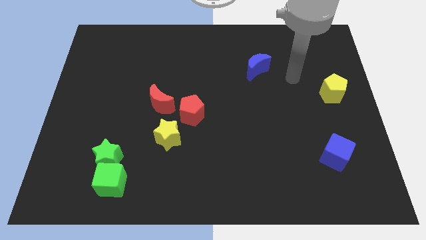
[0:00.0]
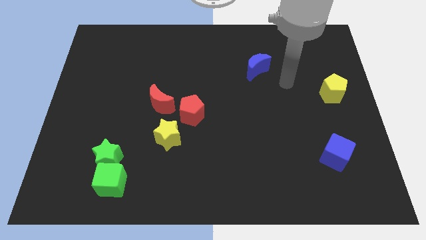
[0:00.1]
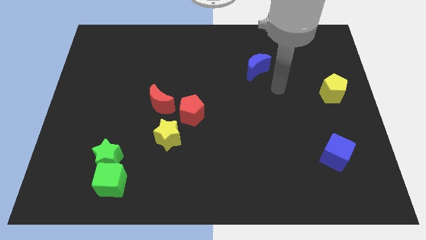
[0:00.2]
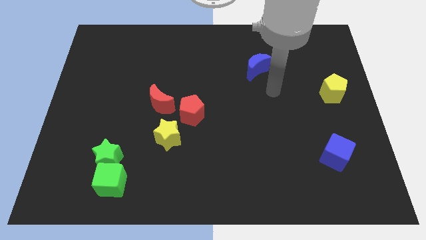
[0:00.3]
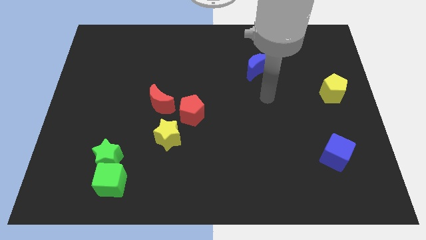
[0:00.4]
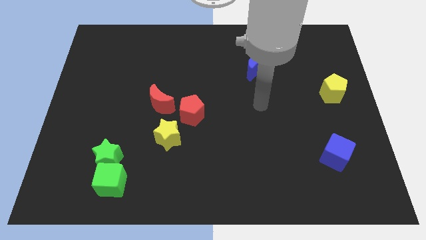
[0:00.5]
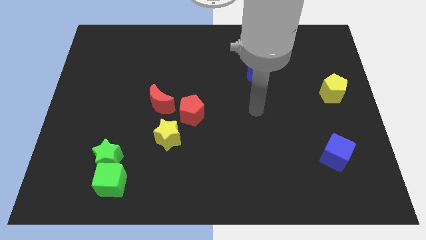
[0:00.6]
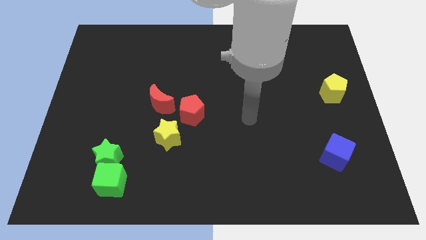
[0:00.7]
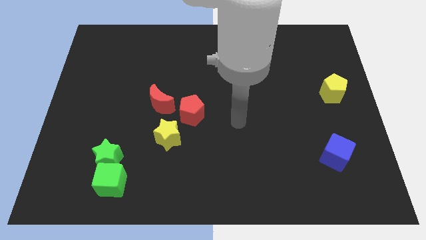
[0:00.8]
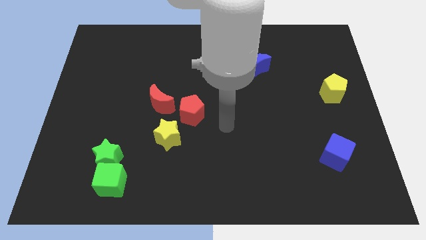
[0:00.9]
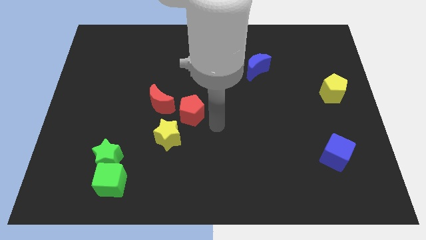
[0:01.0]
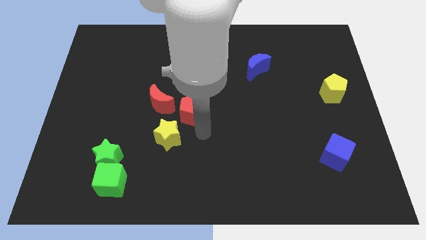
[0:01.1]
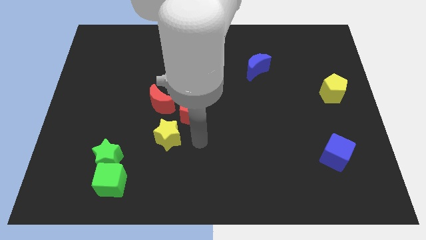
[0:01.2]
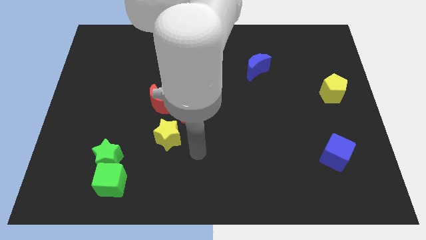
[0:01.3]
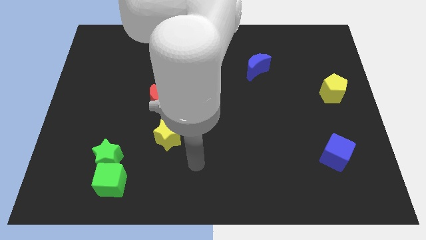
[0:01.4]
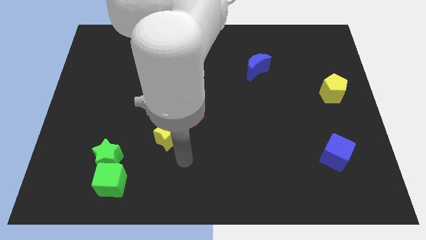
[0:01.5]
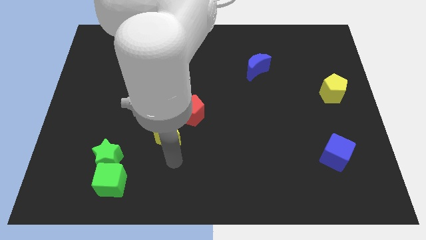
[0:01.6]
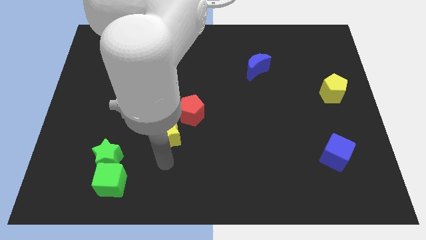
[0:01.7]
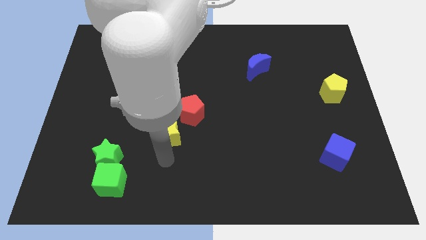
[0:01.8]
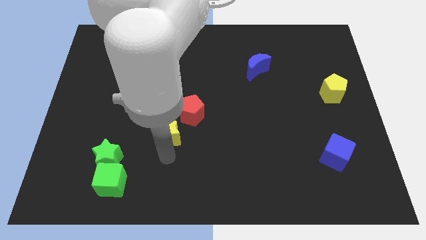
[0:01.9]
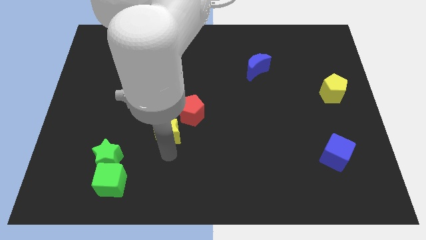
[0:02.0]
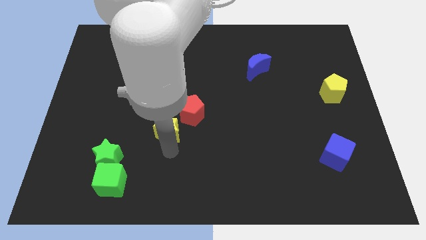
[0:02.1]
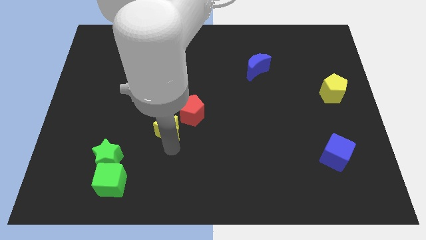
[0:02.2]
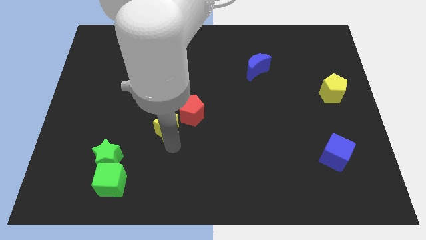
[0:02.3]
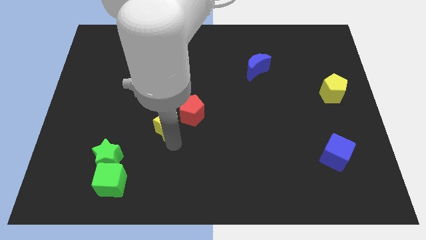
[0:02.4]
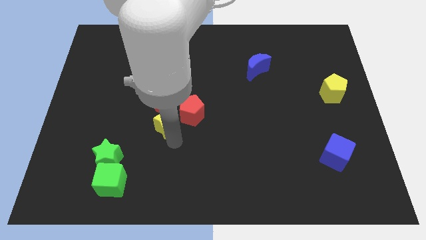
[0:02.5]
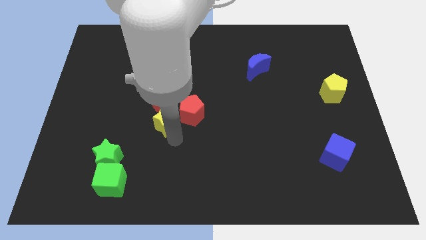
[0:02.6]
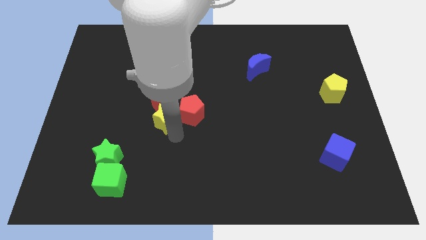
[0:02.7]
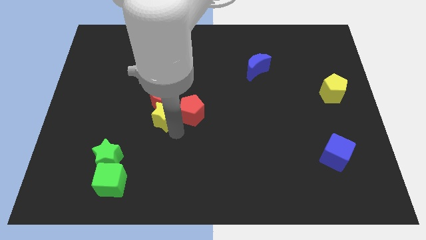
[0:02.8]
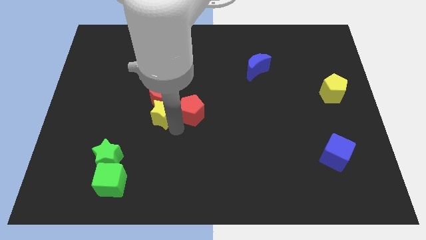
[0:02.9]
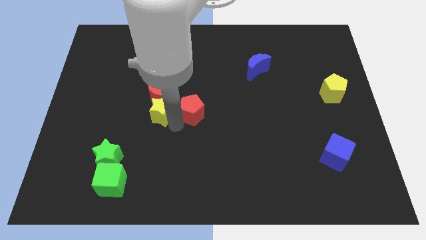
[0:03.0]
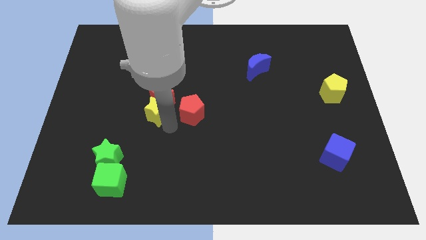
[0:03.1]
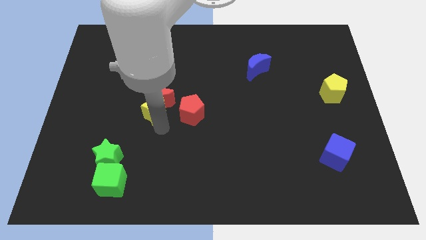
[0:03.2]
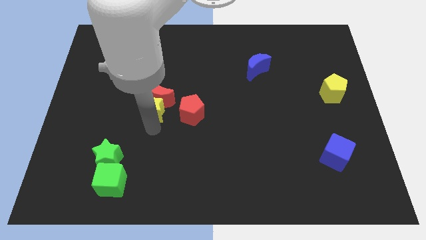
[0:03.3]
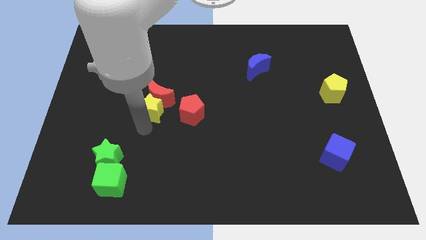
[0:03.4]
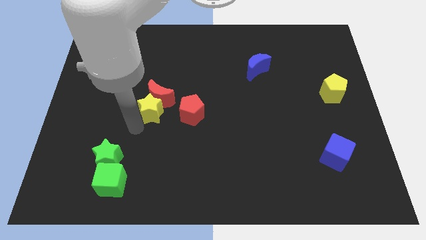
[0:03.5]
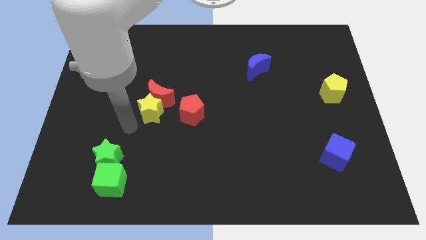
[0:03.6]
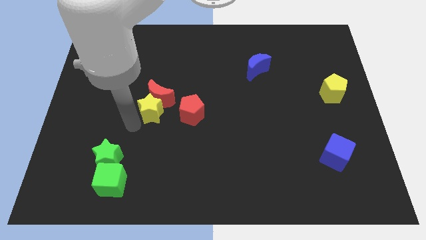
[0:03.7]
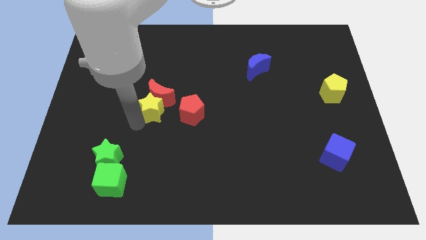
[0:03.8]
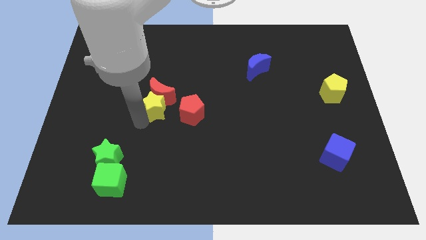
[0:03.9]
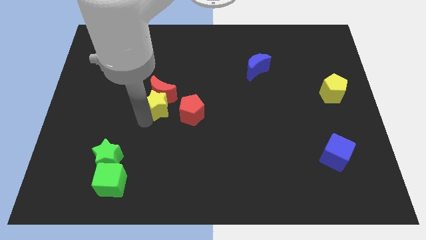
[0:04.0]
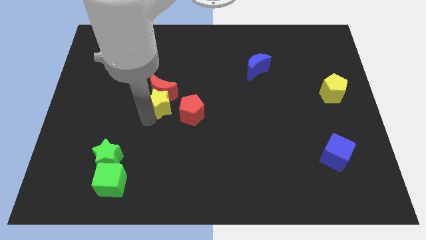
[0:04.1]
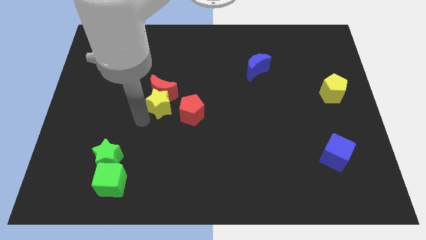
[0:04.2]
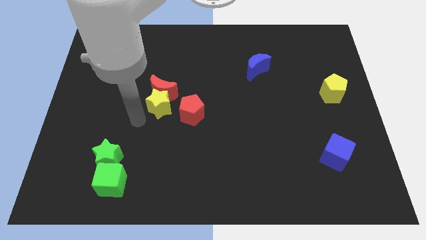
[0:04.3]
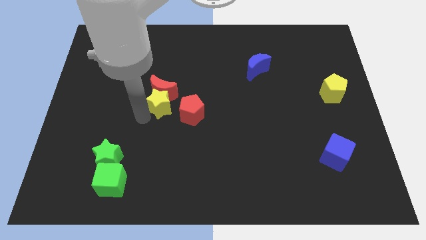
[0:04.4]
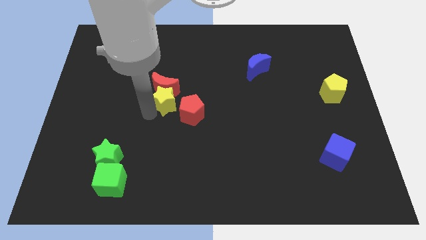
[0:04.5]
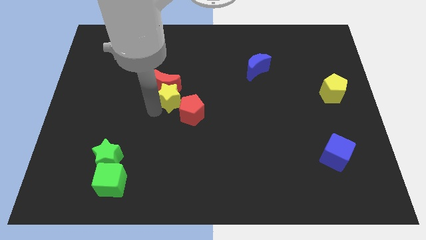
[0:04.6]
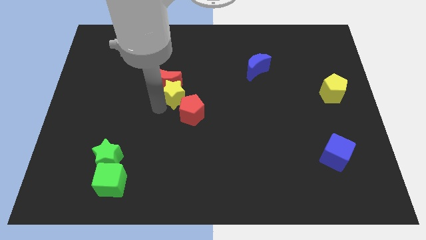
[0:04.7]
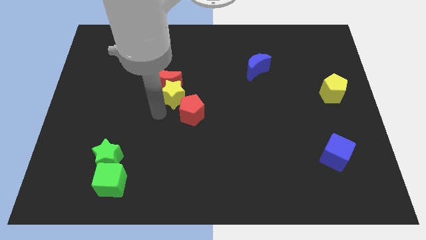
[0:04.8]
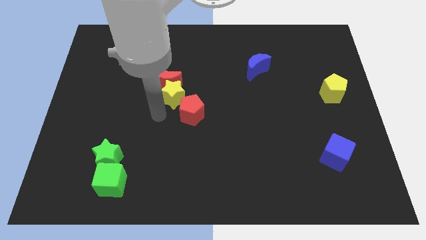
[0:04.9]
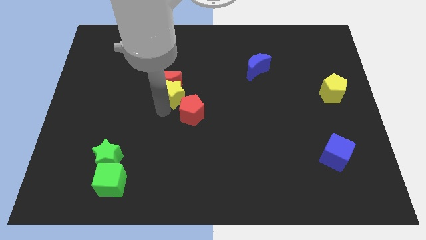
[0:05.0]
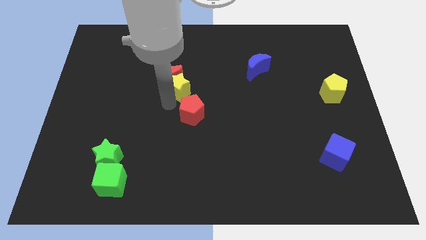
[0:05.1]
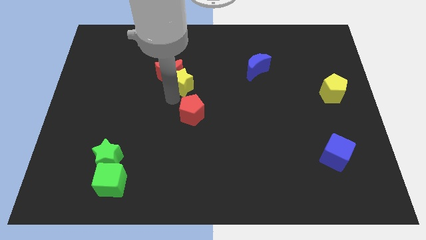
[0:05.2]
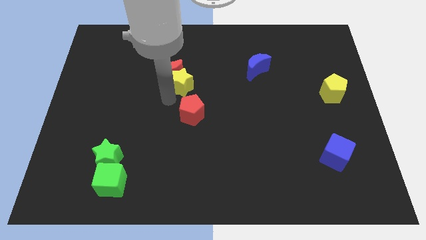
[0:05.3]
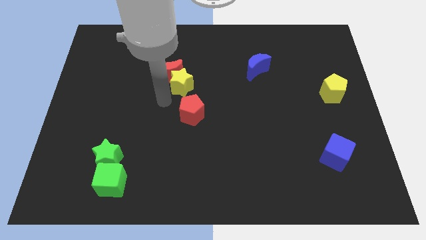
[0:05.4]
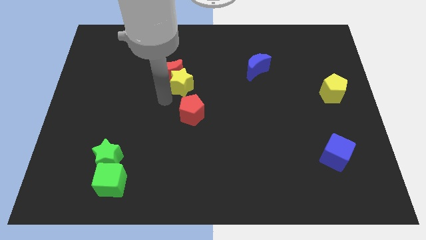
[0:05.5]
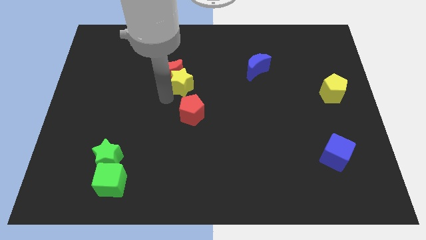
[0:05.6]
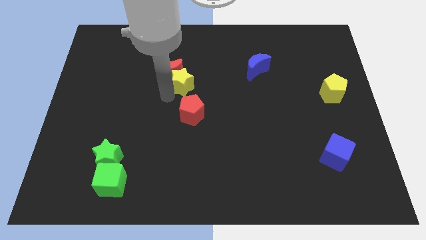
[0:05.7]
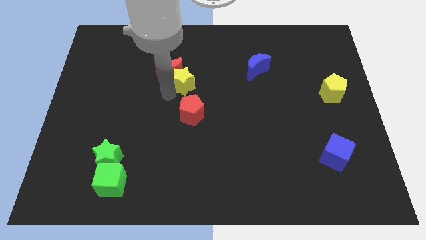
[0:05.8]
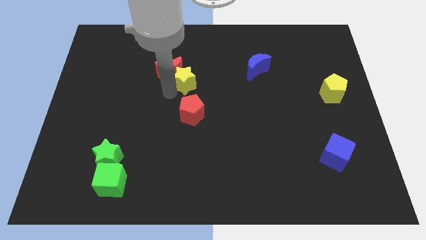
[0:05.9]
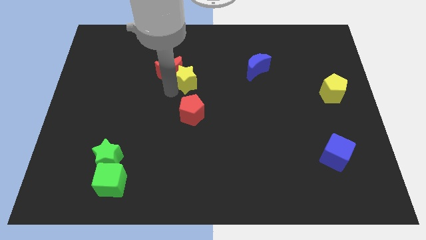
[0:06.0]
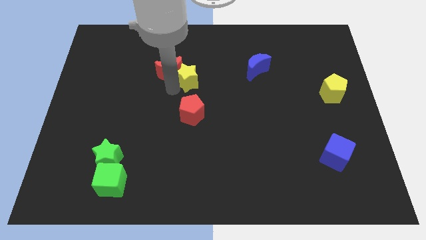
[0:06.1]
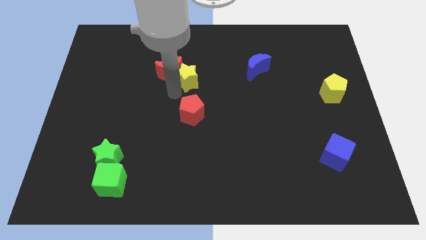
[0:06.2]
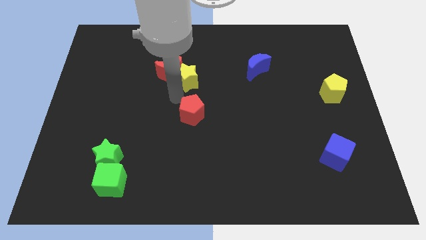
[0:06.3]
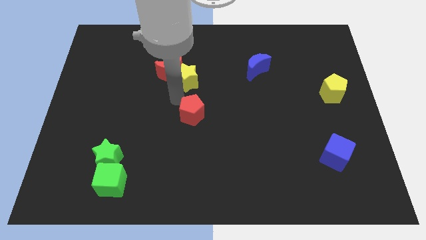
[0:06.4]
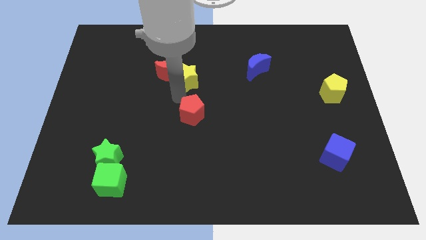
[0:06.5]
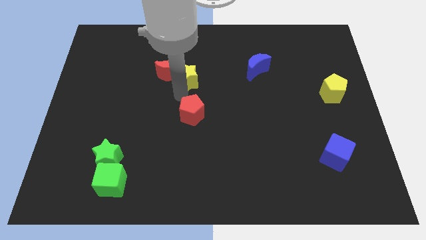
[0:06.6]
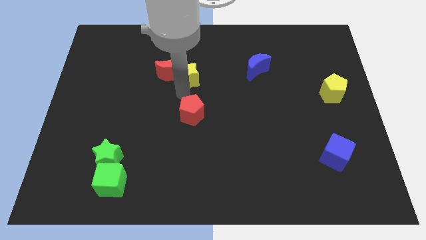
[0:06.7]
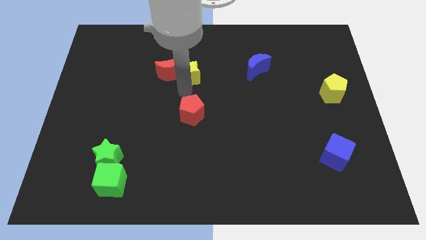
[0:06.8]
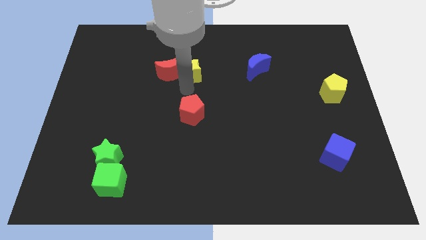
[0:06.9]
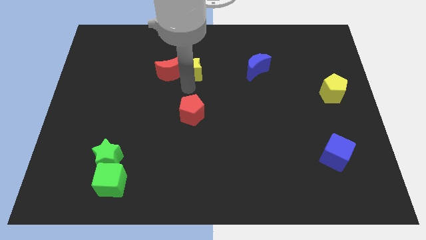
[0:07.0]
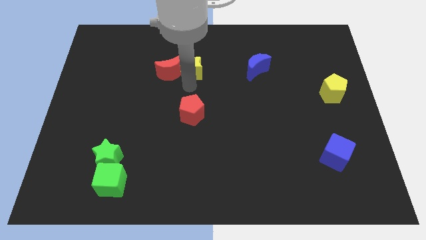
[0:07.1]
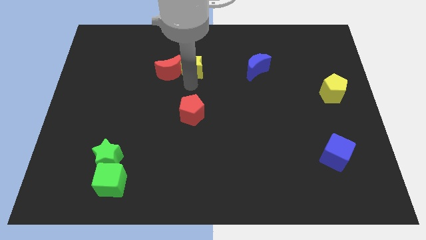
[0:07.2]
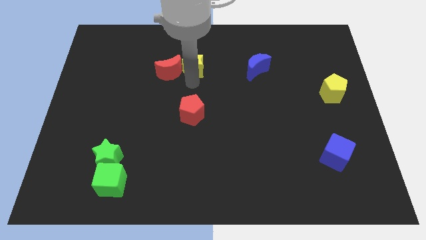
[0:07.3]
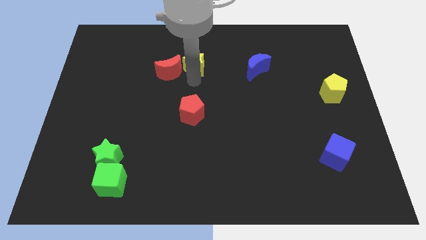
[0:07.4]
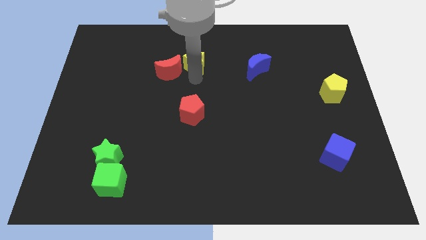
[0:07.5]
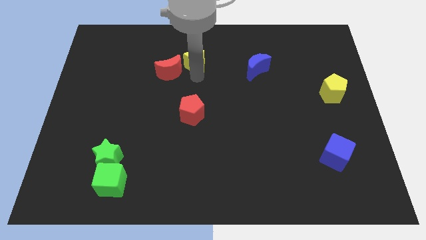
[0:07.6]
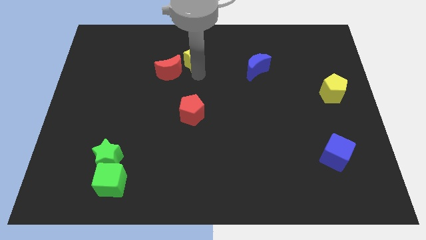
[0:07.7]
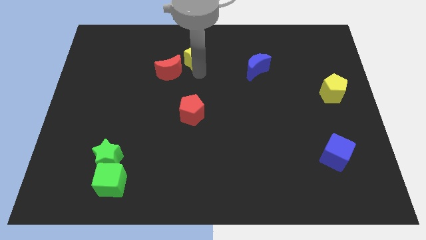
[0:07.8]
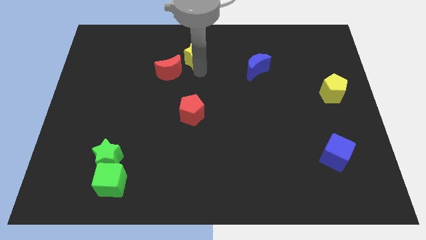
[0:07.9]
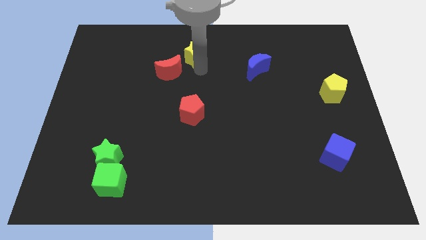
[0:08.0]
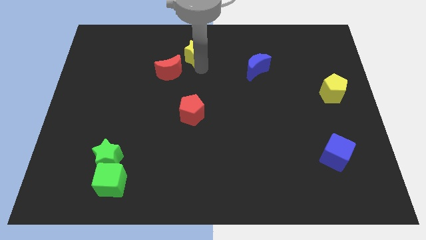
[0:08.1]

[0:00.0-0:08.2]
push the yellow star to the top
